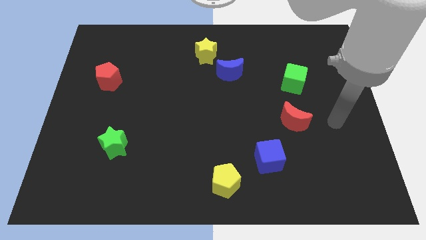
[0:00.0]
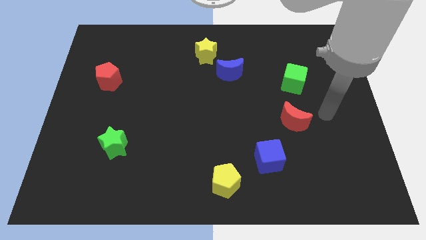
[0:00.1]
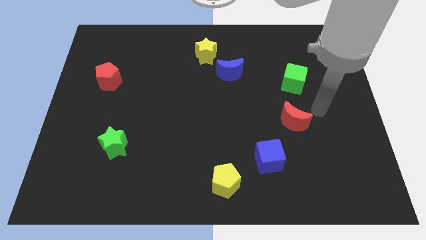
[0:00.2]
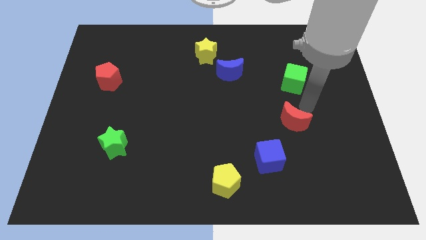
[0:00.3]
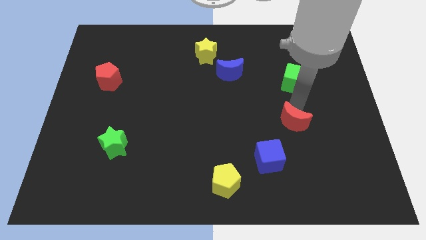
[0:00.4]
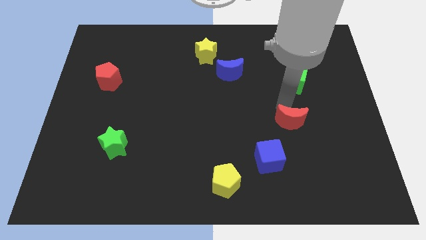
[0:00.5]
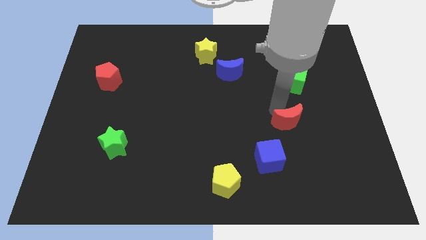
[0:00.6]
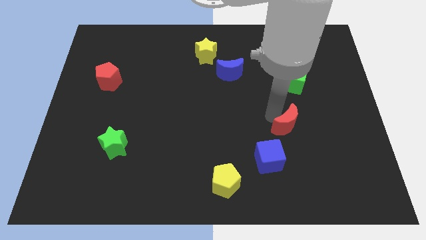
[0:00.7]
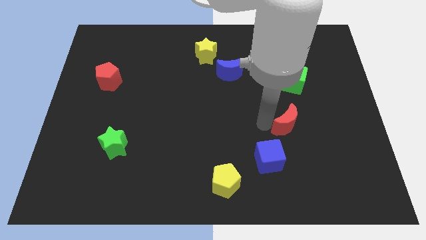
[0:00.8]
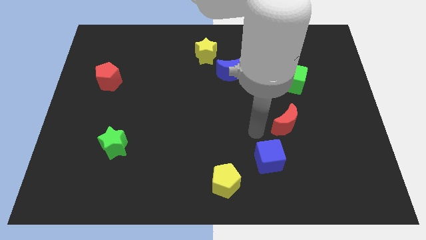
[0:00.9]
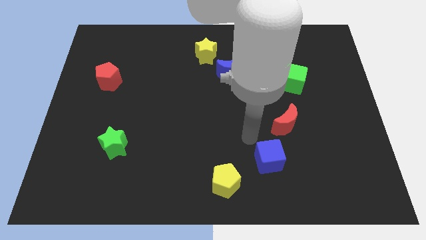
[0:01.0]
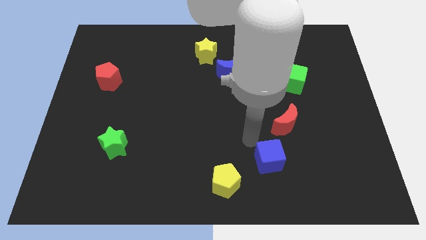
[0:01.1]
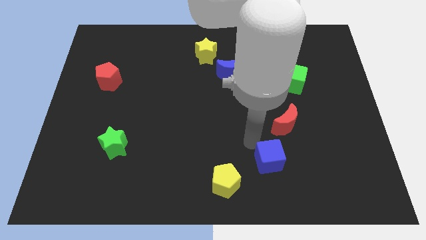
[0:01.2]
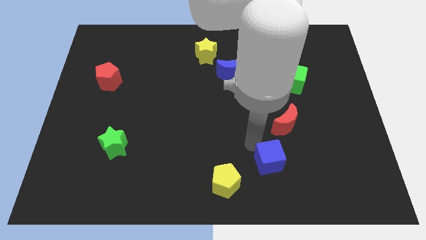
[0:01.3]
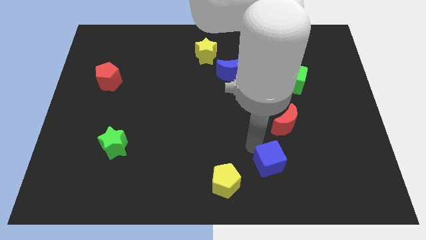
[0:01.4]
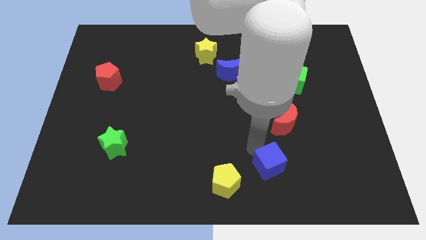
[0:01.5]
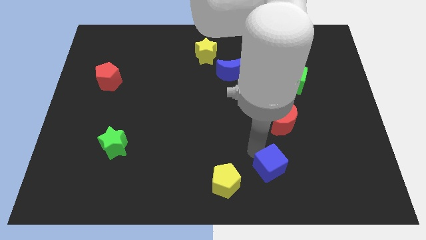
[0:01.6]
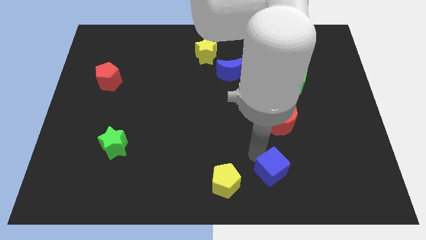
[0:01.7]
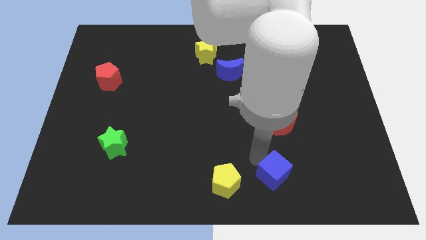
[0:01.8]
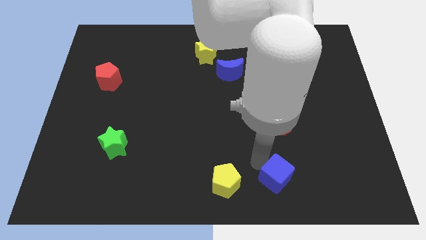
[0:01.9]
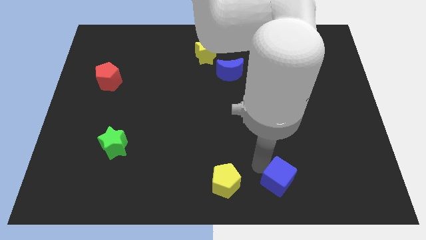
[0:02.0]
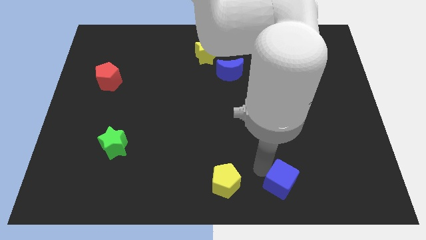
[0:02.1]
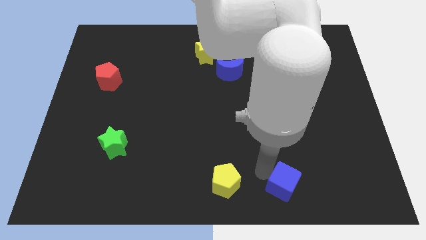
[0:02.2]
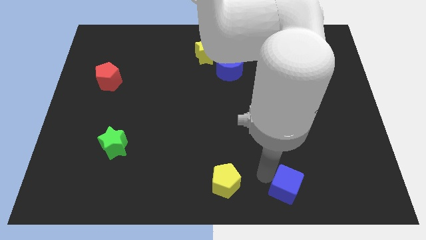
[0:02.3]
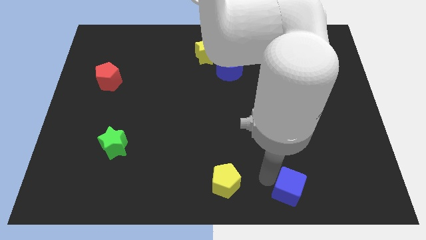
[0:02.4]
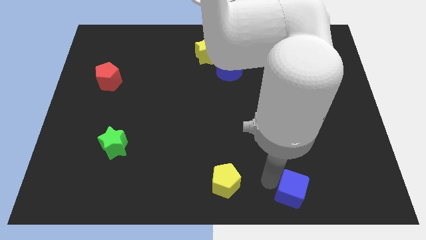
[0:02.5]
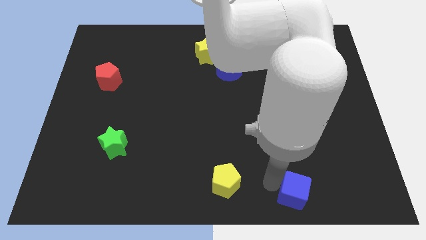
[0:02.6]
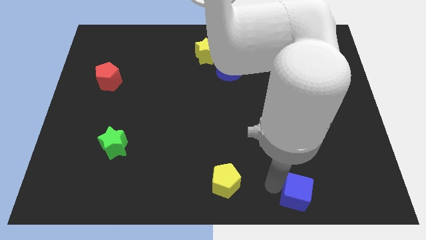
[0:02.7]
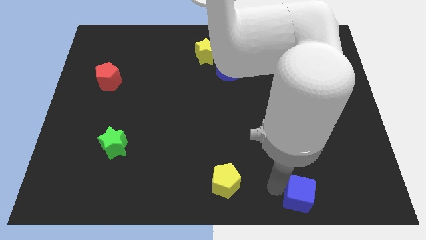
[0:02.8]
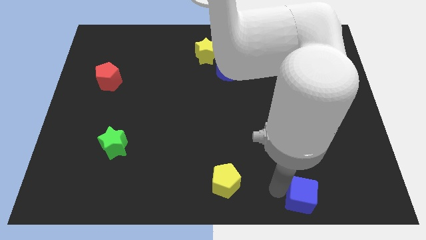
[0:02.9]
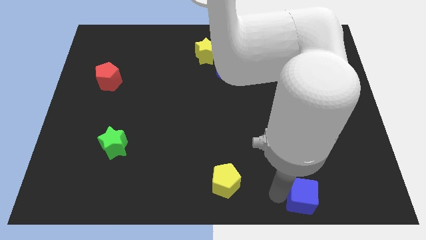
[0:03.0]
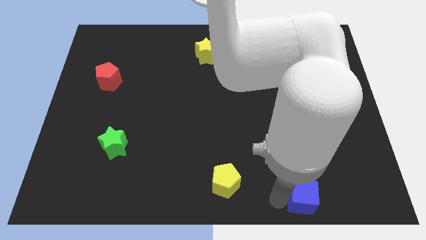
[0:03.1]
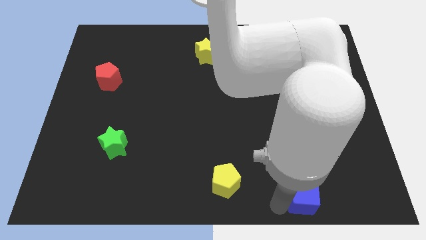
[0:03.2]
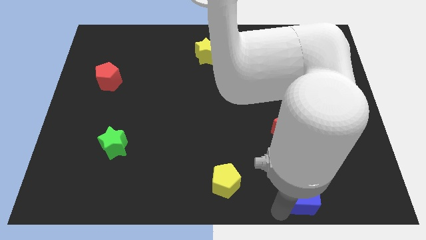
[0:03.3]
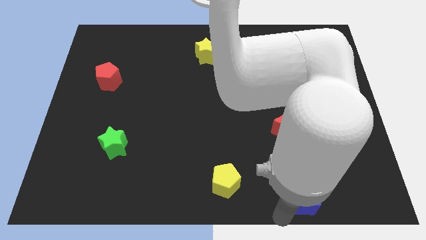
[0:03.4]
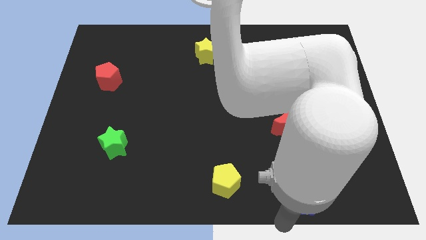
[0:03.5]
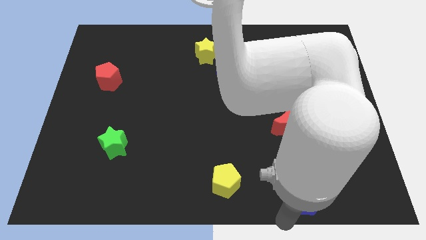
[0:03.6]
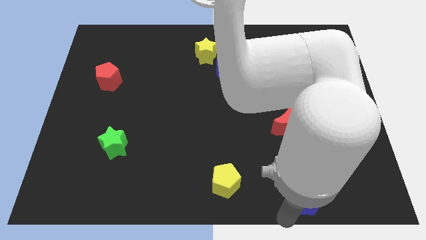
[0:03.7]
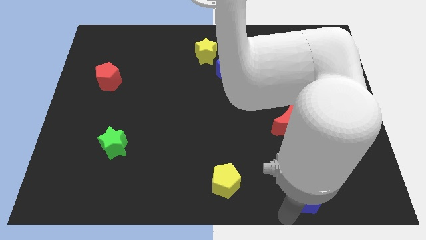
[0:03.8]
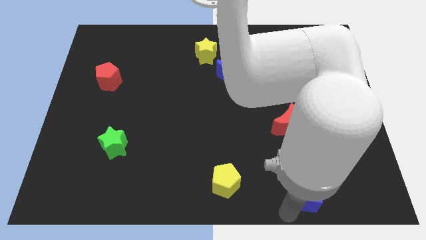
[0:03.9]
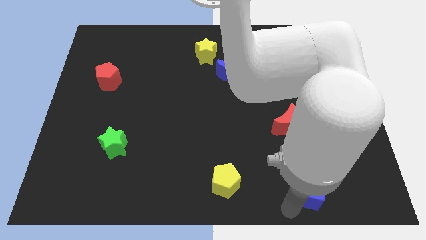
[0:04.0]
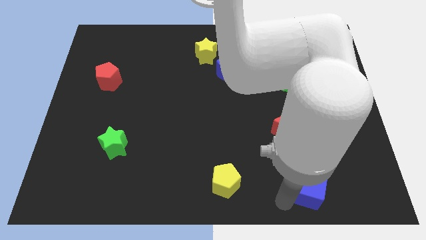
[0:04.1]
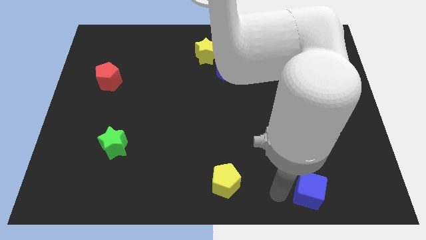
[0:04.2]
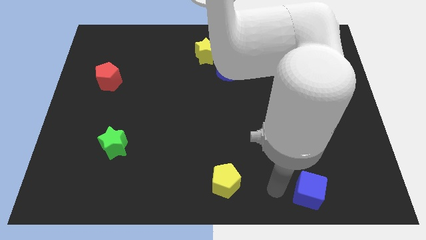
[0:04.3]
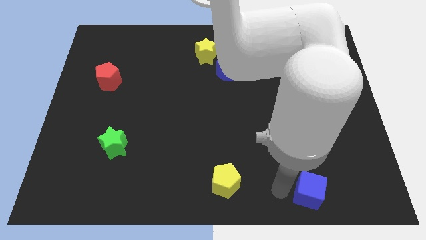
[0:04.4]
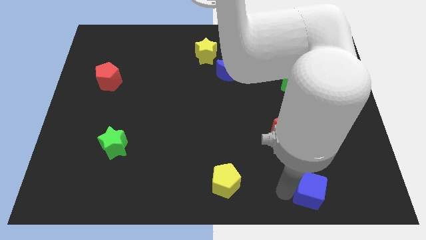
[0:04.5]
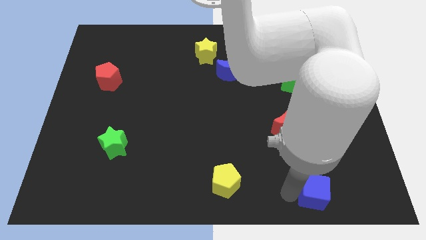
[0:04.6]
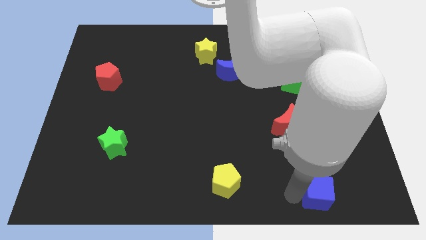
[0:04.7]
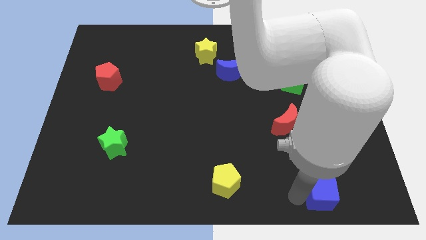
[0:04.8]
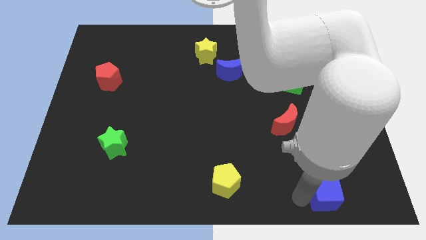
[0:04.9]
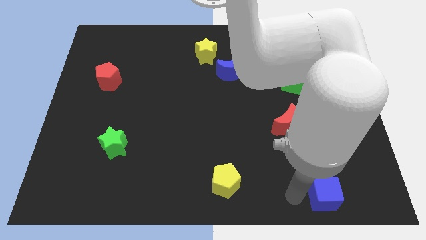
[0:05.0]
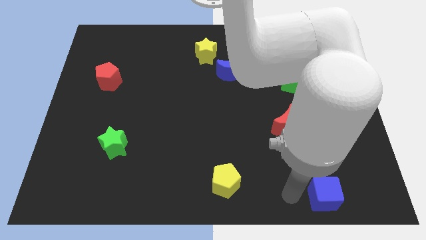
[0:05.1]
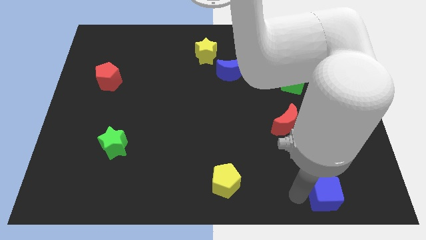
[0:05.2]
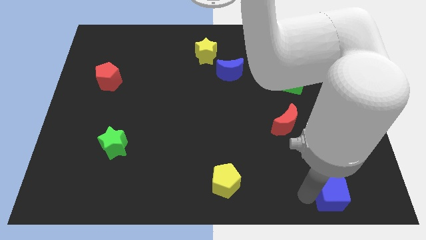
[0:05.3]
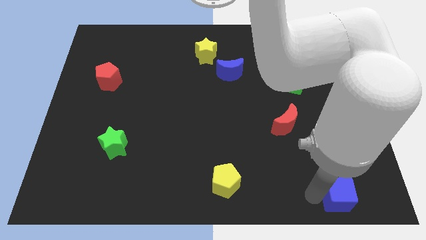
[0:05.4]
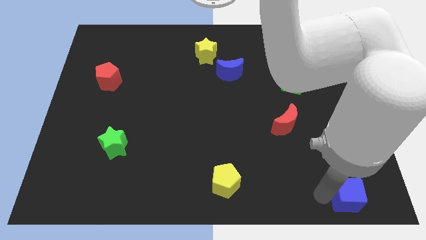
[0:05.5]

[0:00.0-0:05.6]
move the blue cube to the bottom right of the board

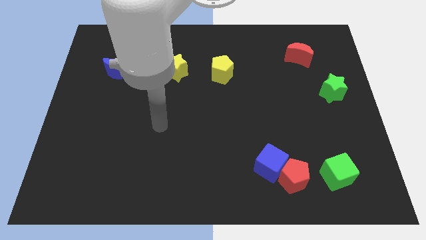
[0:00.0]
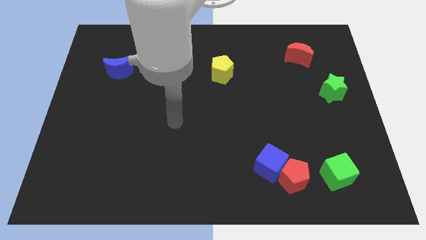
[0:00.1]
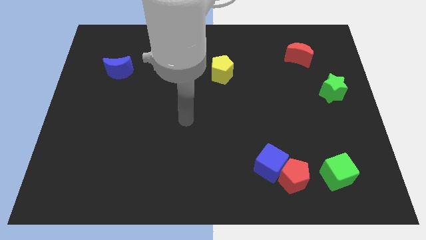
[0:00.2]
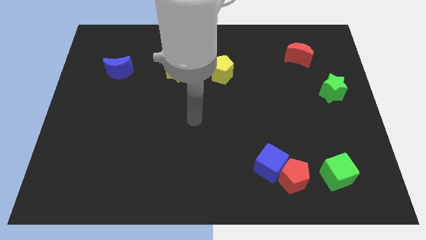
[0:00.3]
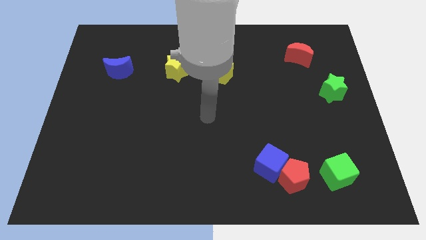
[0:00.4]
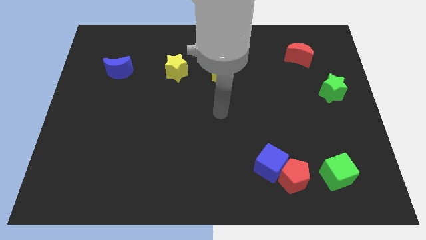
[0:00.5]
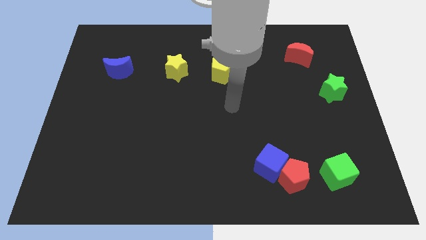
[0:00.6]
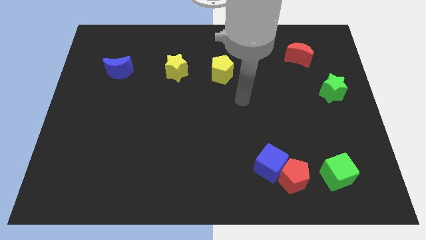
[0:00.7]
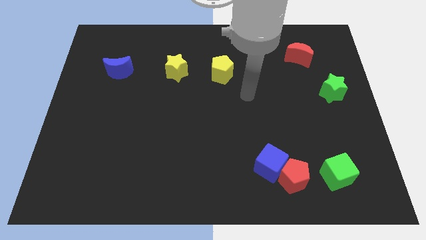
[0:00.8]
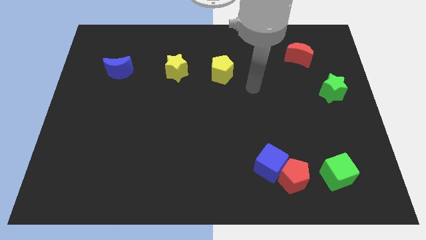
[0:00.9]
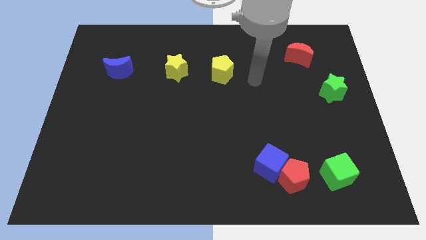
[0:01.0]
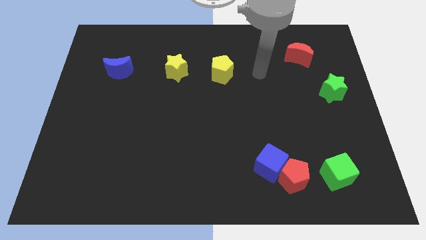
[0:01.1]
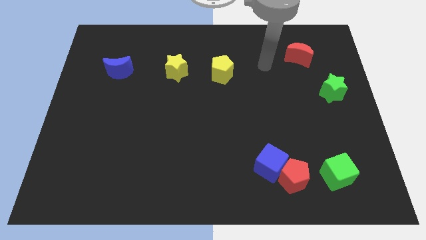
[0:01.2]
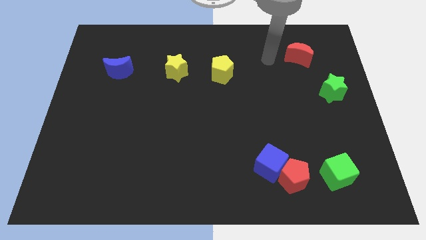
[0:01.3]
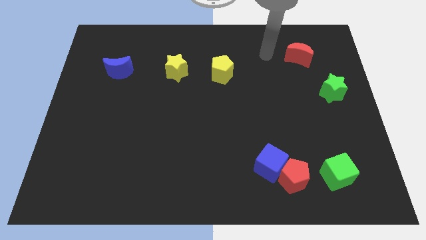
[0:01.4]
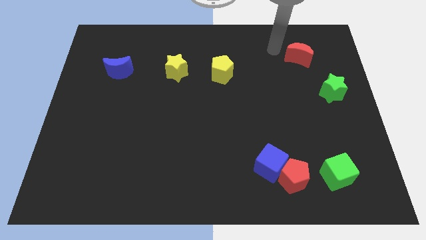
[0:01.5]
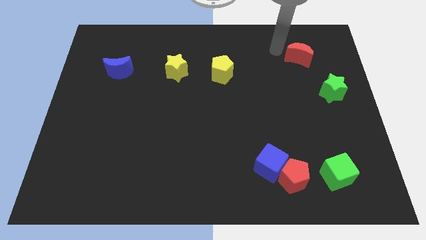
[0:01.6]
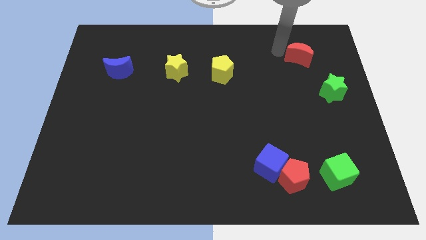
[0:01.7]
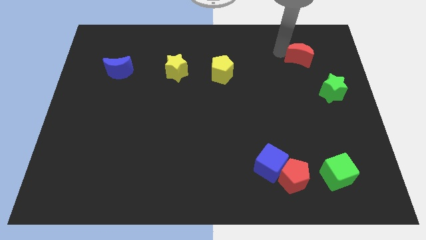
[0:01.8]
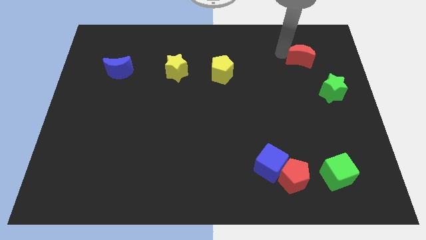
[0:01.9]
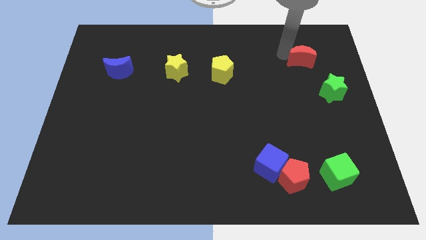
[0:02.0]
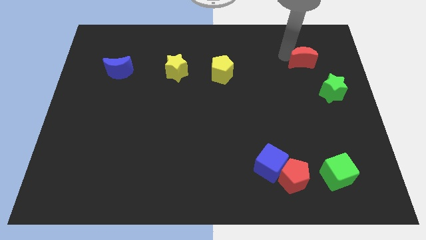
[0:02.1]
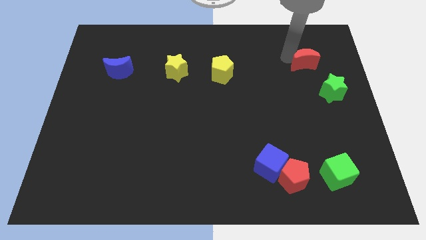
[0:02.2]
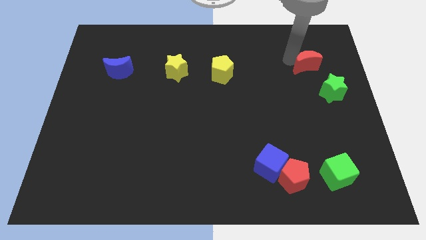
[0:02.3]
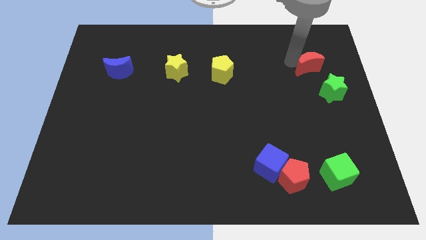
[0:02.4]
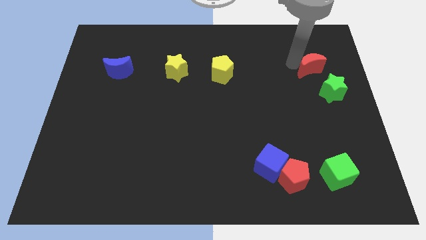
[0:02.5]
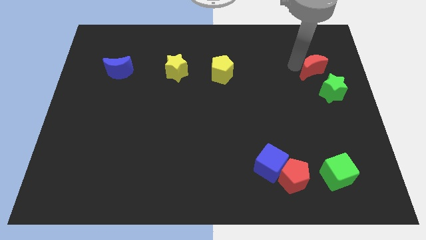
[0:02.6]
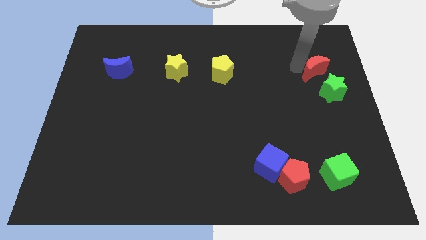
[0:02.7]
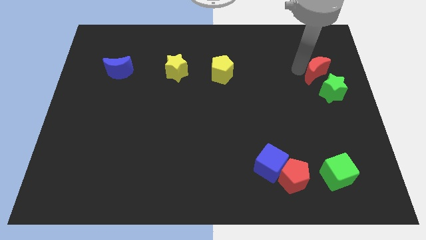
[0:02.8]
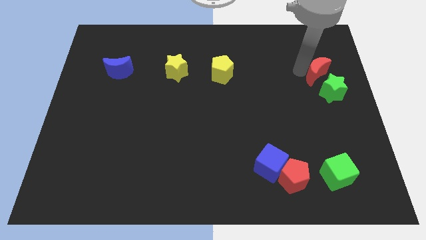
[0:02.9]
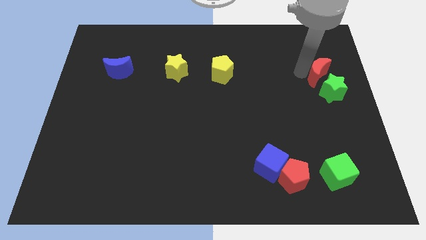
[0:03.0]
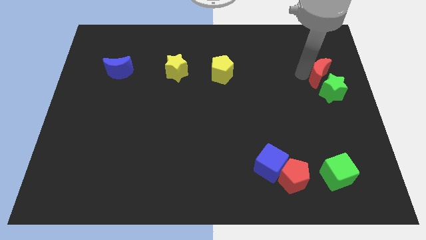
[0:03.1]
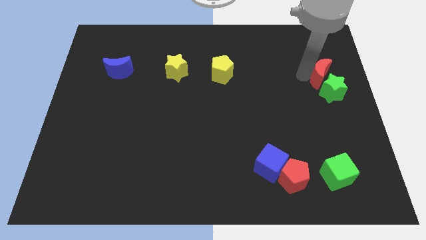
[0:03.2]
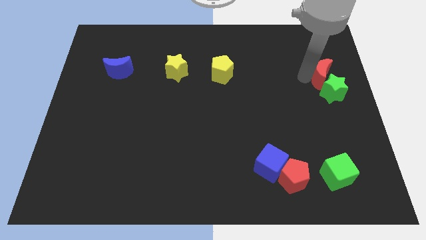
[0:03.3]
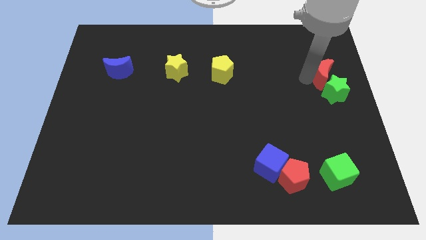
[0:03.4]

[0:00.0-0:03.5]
move the red moon to the right side of the board
